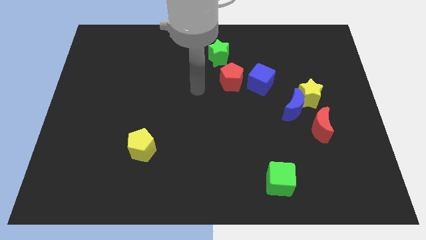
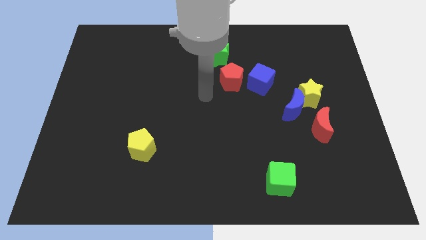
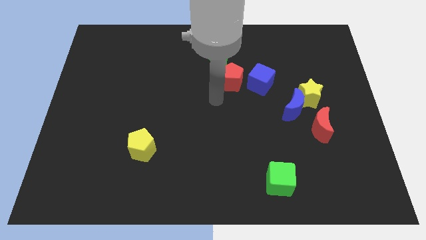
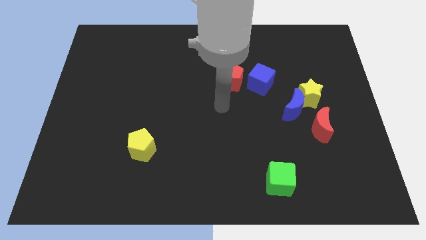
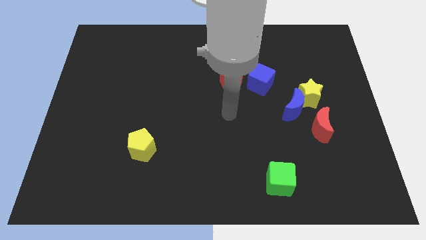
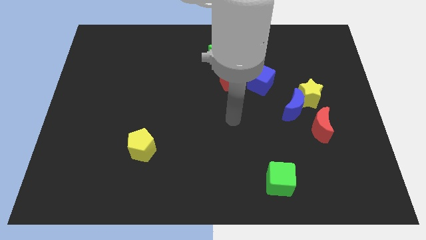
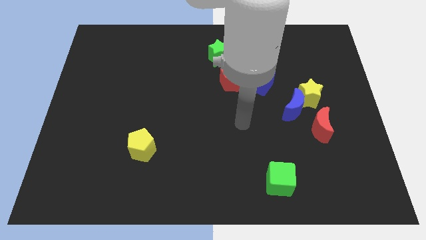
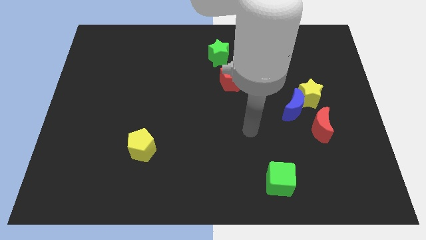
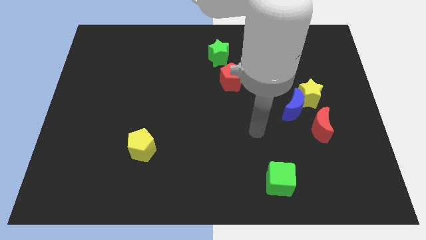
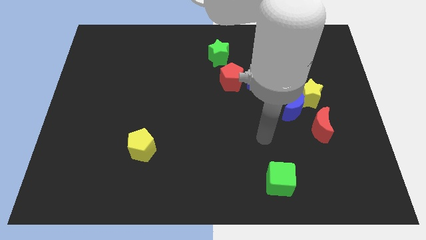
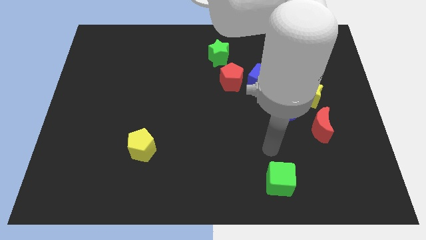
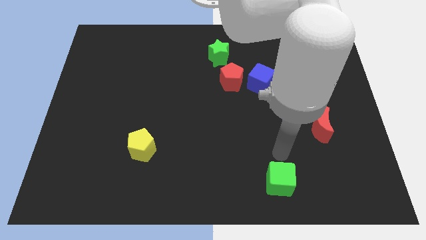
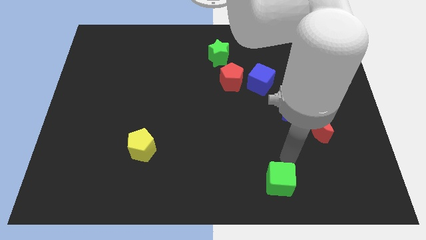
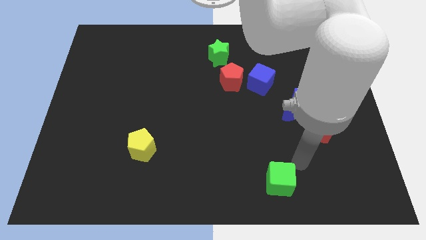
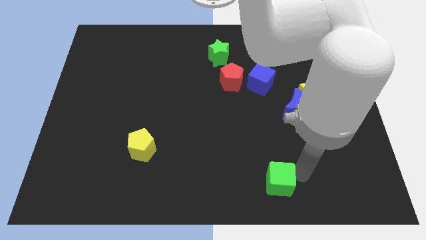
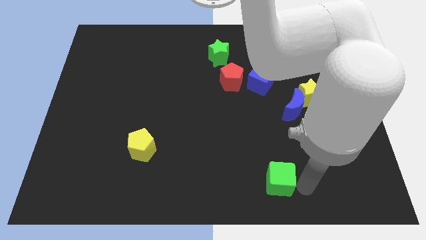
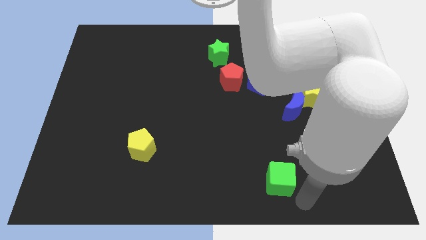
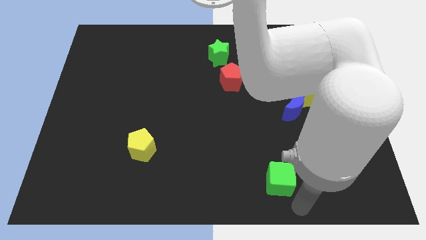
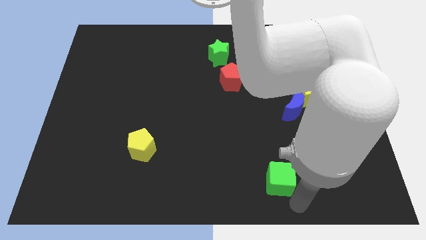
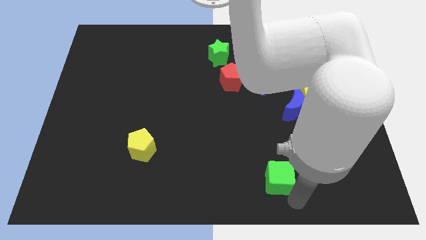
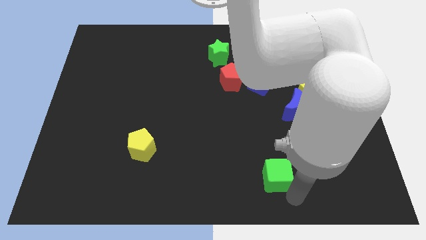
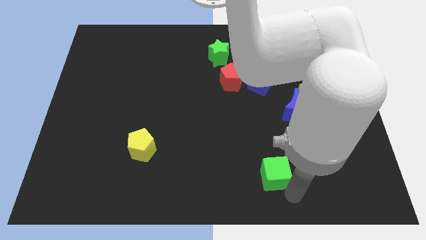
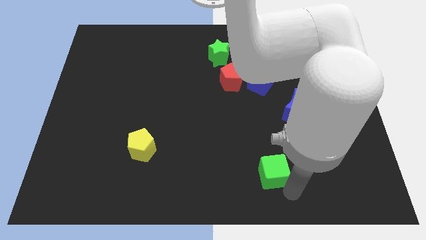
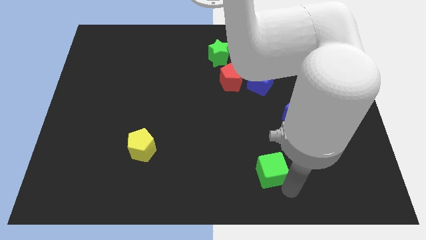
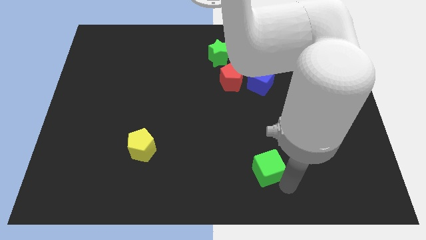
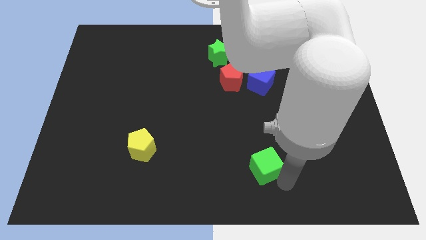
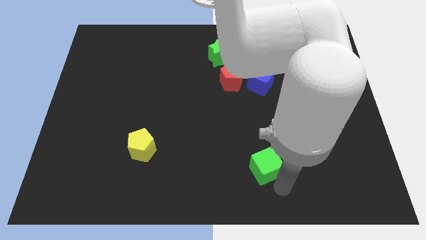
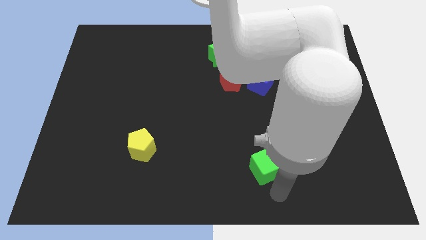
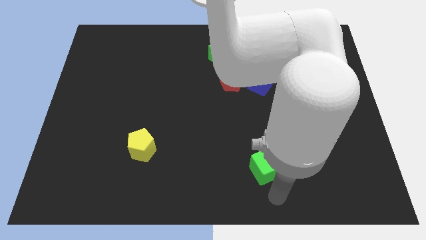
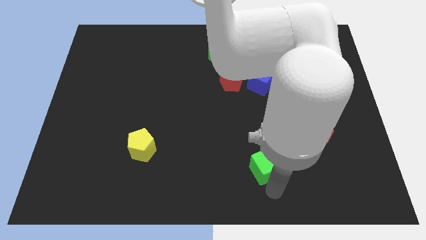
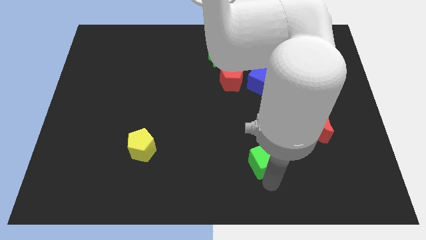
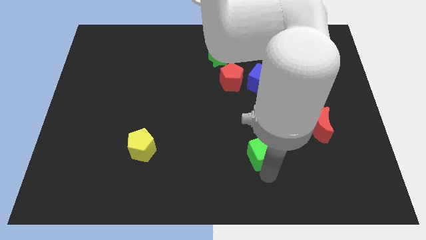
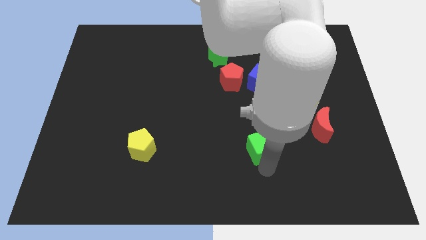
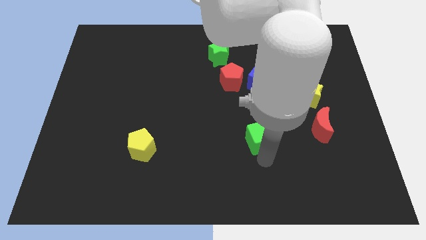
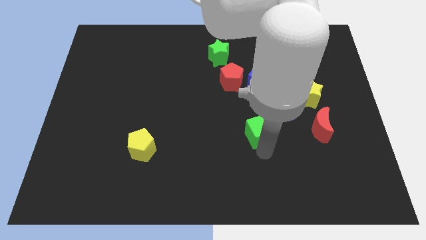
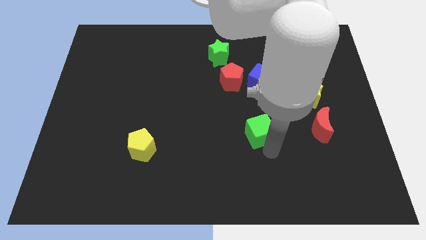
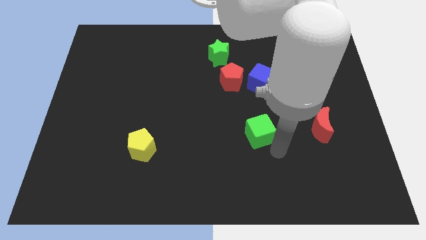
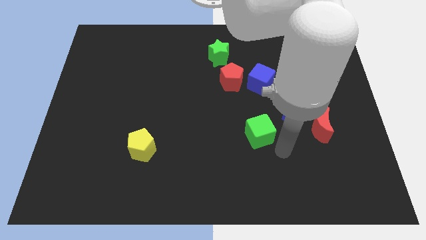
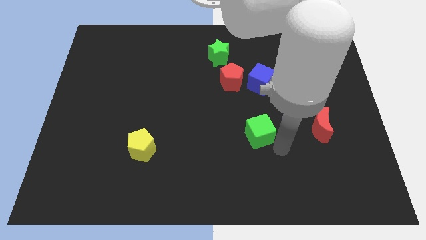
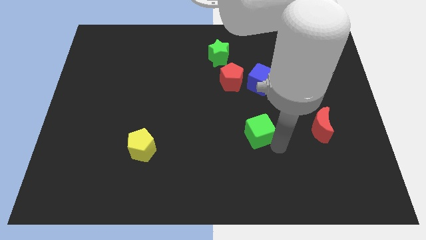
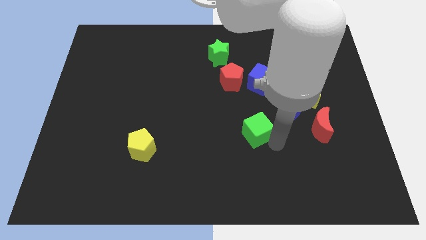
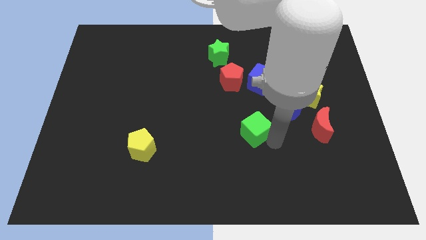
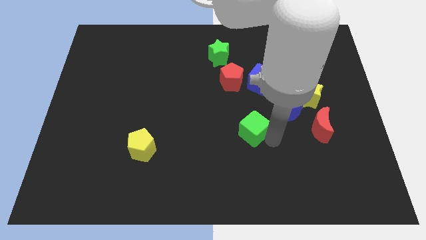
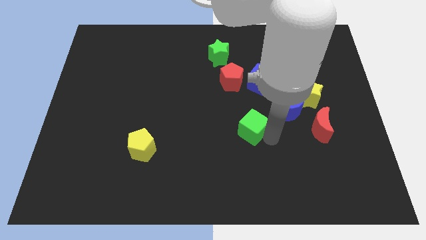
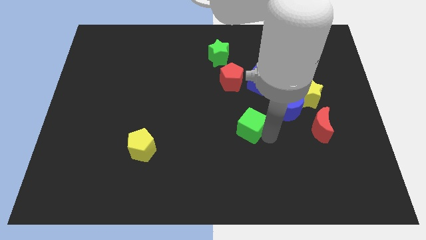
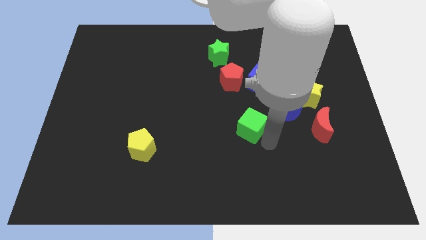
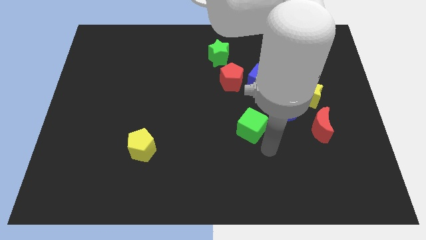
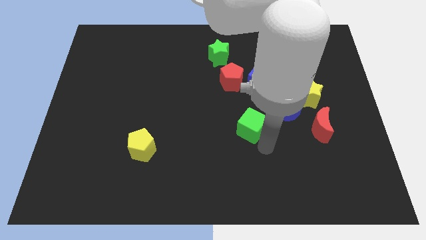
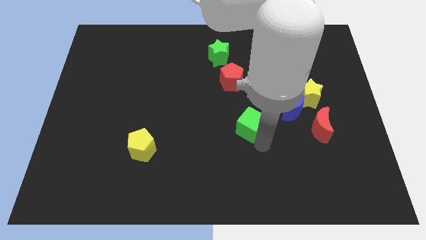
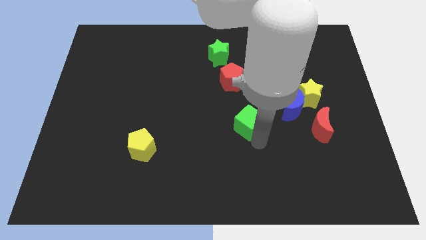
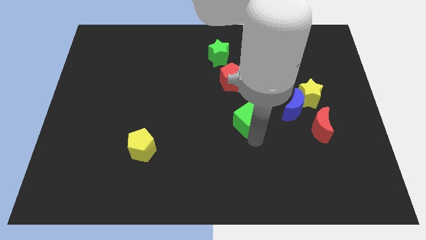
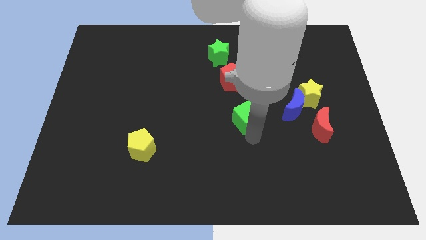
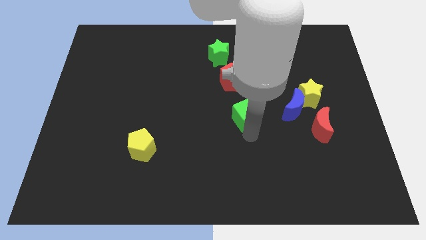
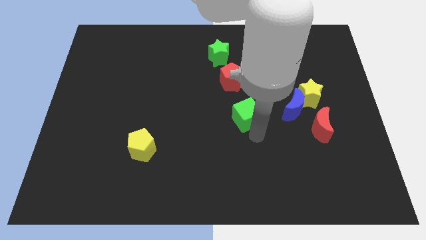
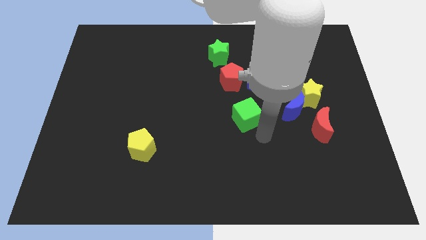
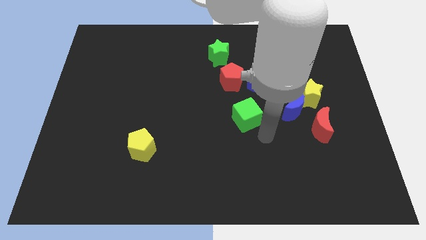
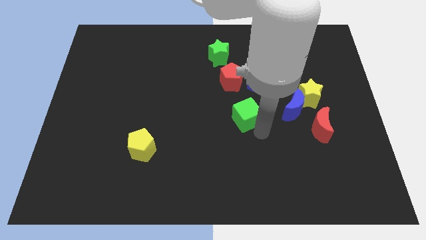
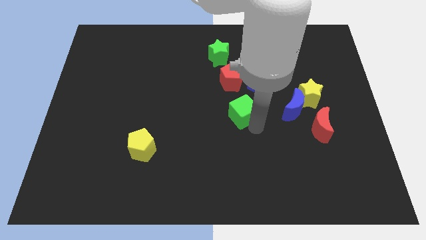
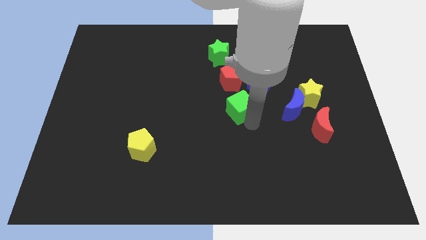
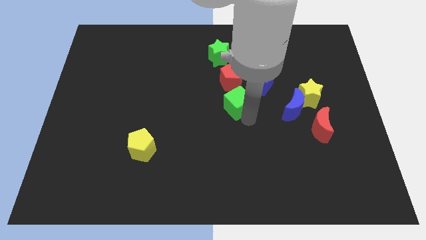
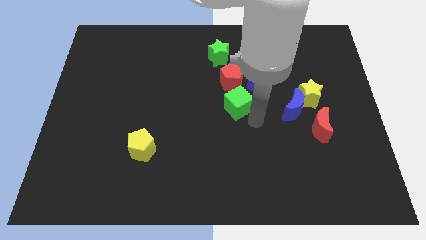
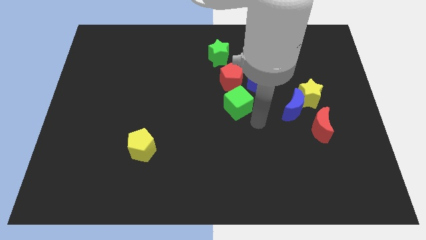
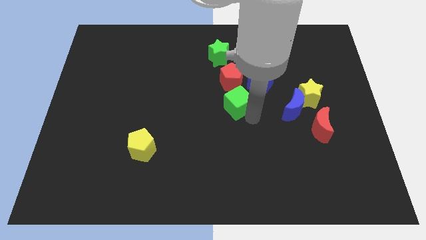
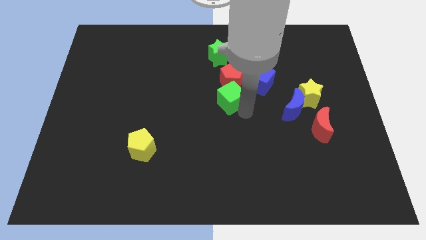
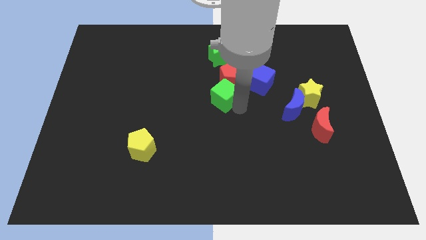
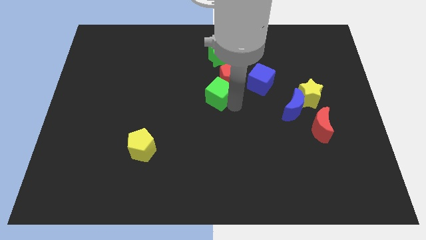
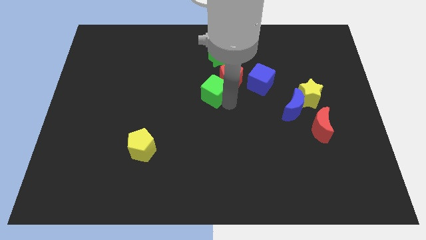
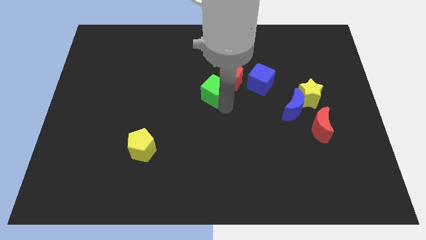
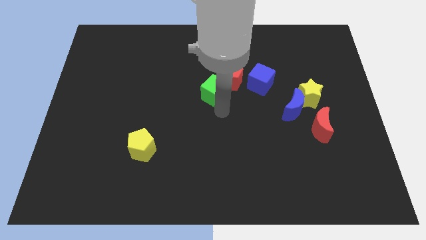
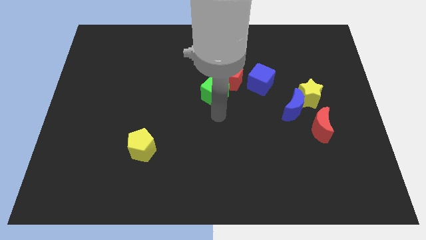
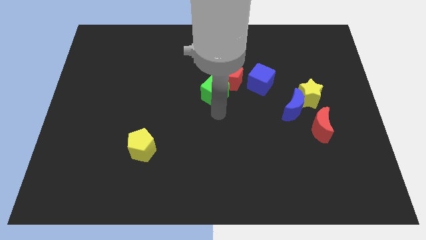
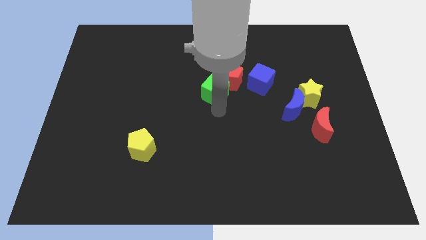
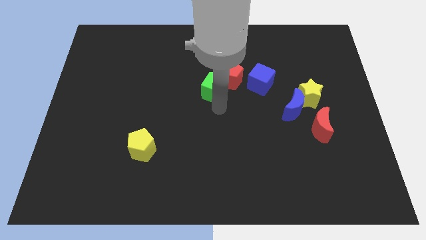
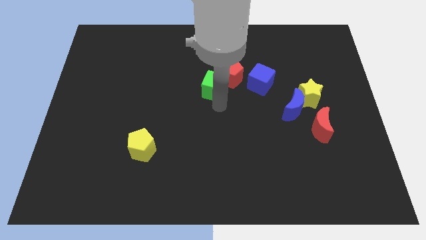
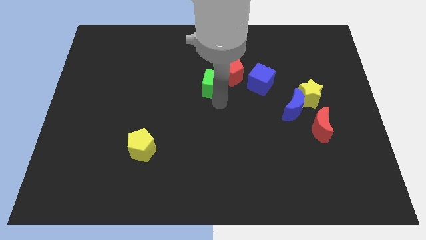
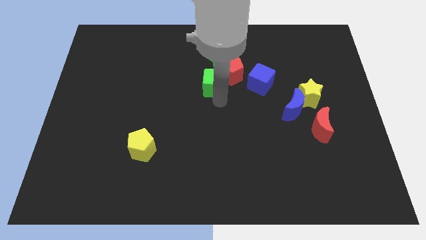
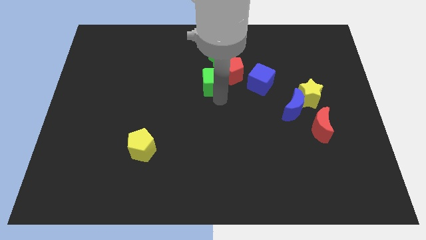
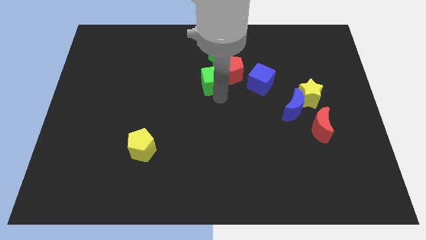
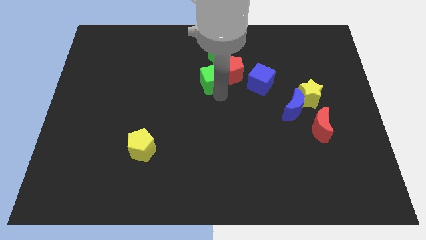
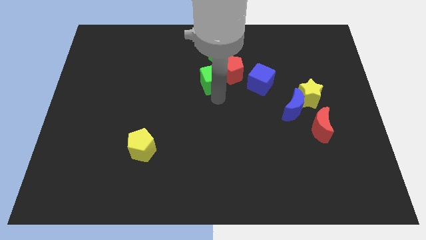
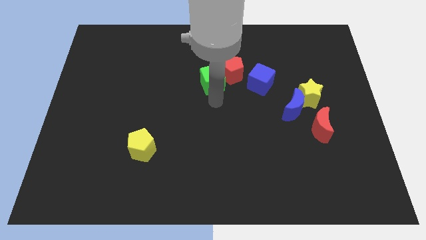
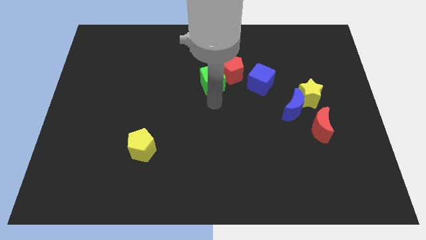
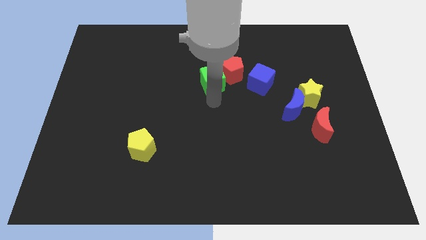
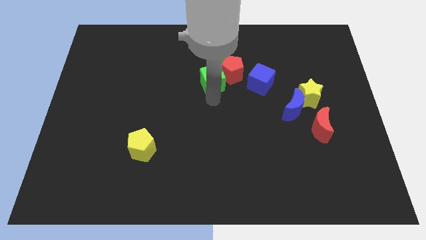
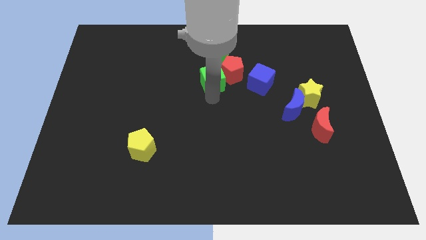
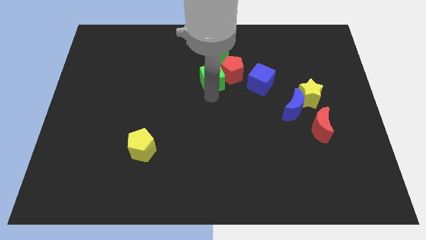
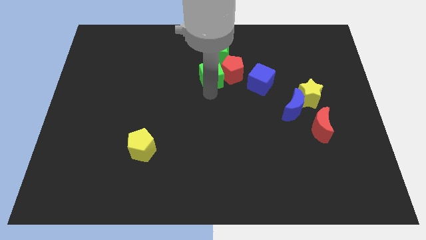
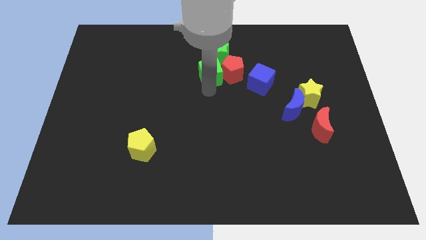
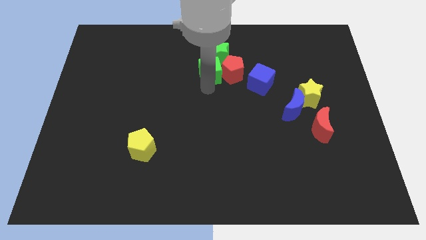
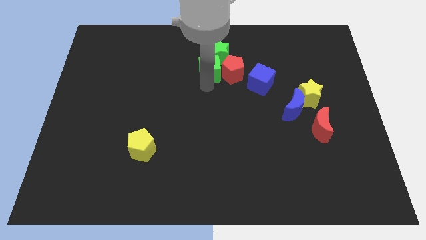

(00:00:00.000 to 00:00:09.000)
move the green cube close to the green star
